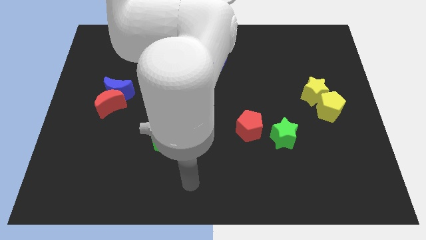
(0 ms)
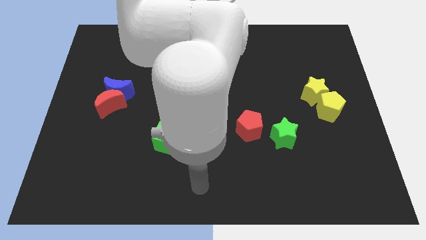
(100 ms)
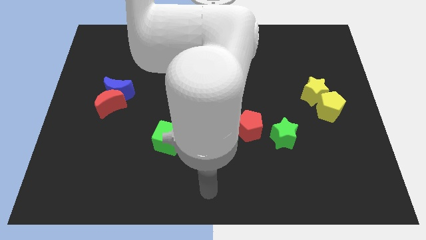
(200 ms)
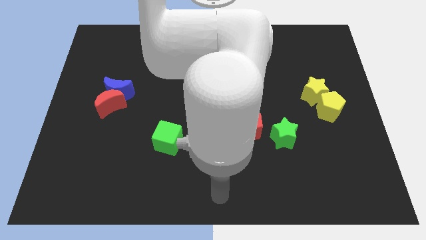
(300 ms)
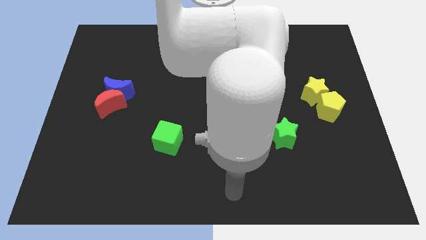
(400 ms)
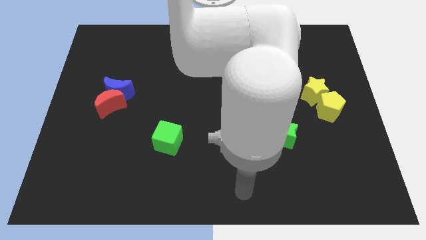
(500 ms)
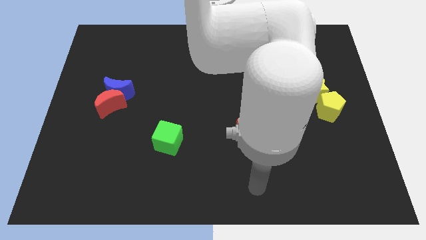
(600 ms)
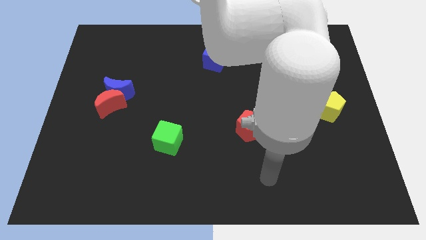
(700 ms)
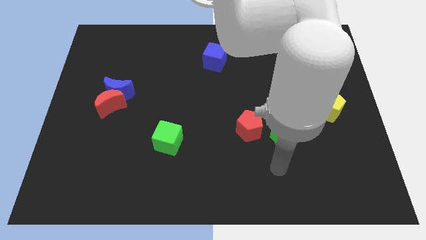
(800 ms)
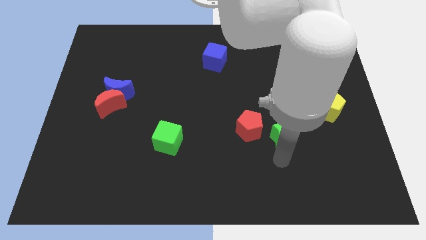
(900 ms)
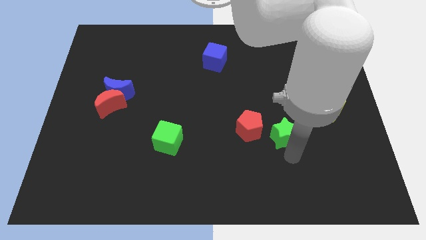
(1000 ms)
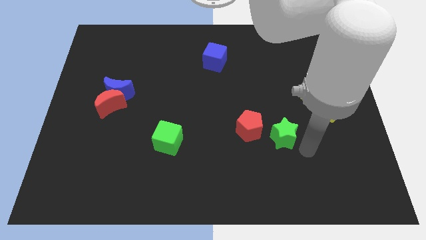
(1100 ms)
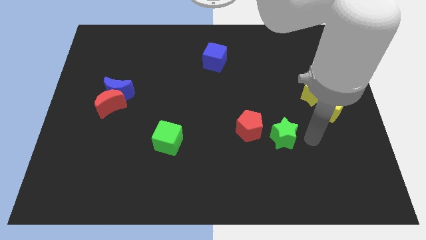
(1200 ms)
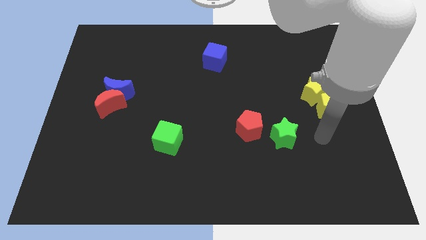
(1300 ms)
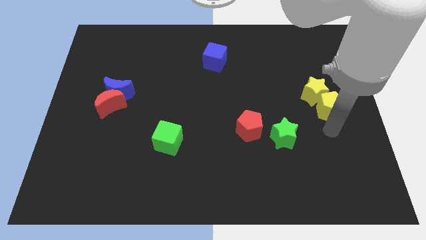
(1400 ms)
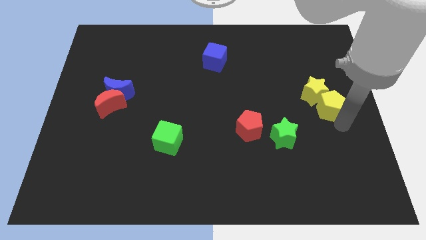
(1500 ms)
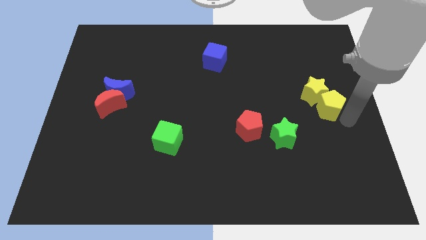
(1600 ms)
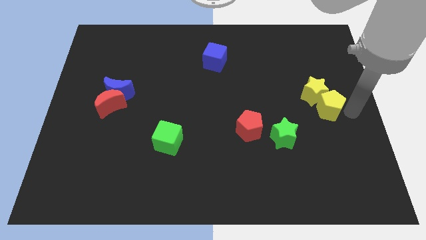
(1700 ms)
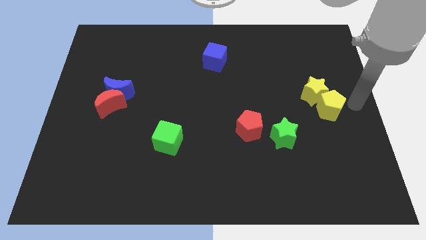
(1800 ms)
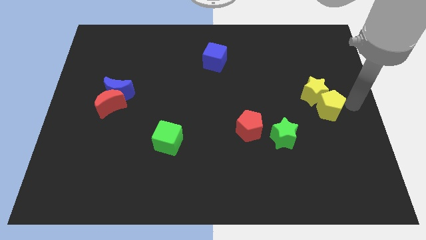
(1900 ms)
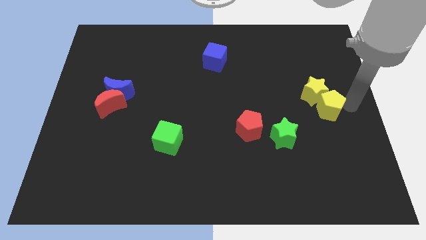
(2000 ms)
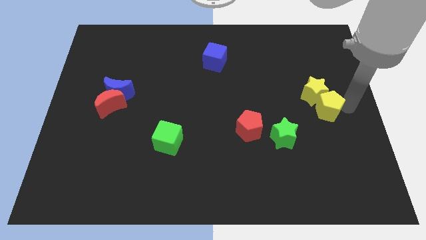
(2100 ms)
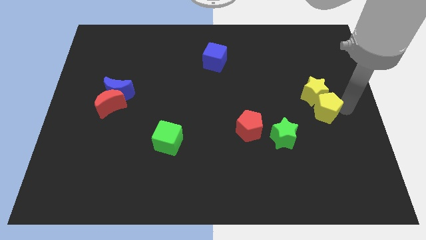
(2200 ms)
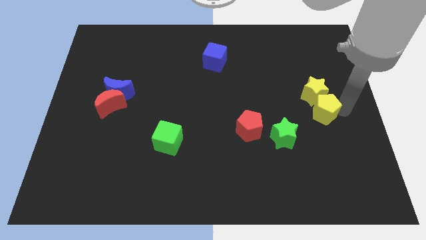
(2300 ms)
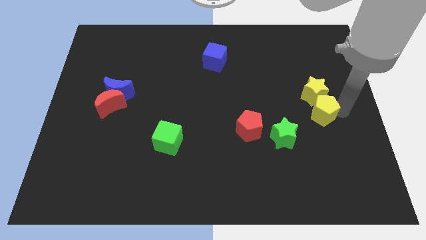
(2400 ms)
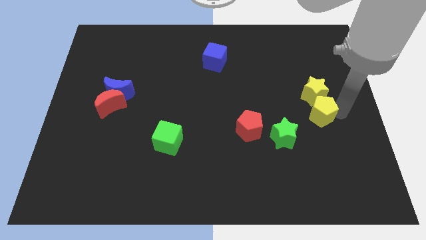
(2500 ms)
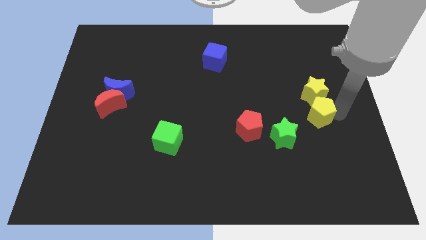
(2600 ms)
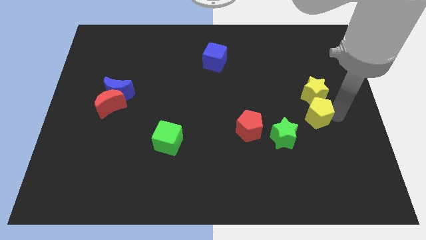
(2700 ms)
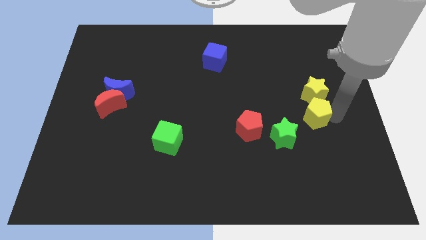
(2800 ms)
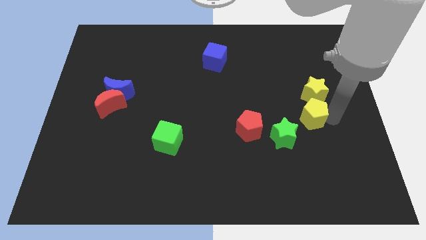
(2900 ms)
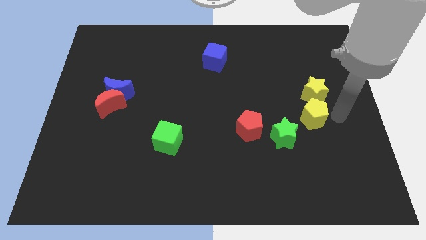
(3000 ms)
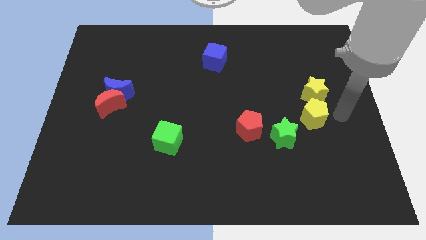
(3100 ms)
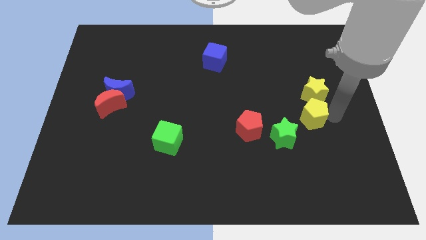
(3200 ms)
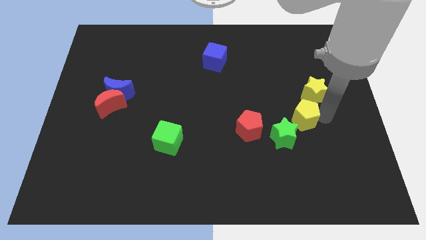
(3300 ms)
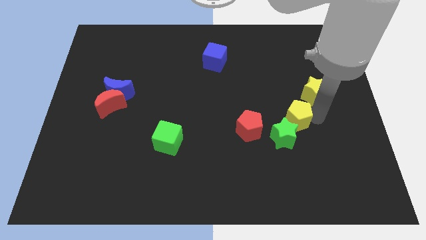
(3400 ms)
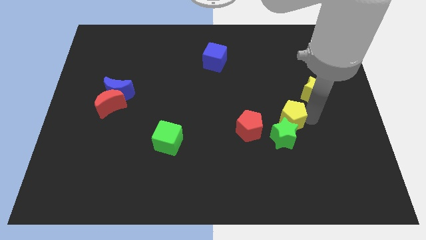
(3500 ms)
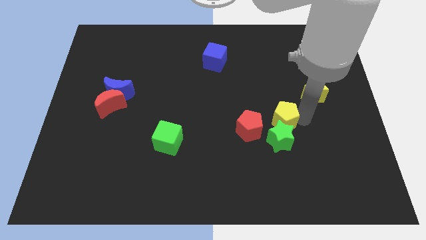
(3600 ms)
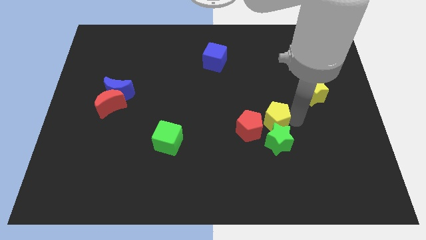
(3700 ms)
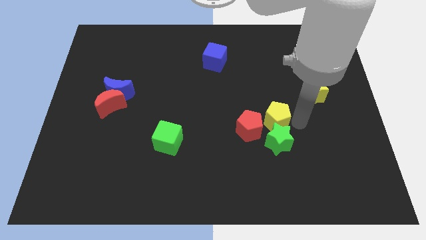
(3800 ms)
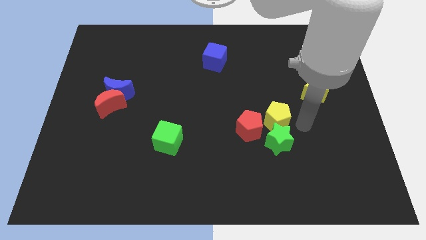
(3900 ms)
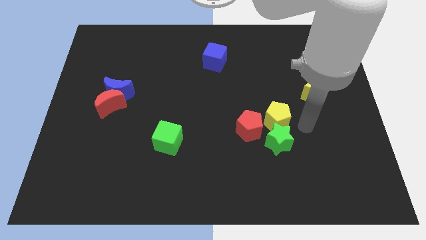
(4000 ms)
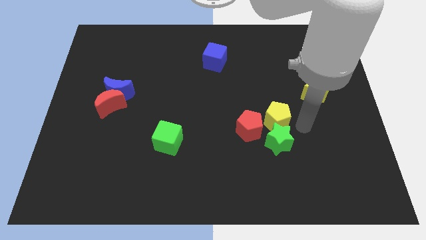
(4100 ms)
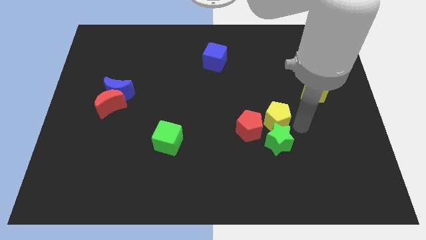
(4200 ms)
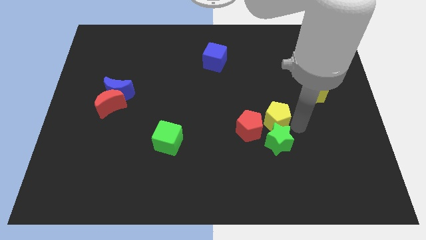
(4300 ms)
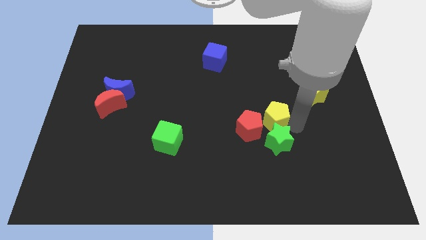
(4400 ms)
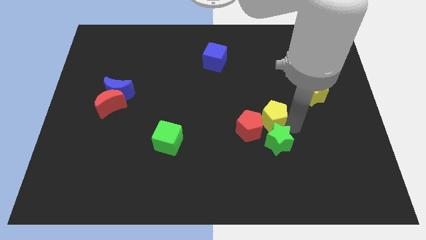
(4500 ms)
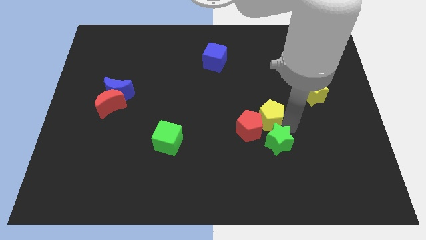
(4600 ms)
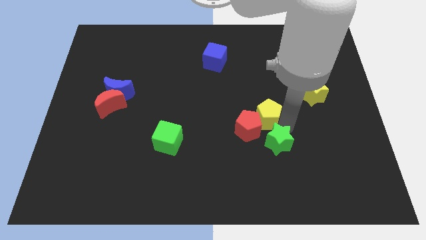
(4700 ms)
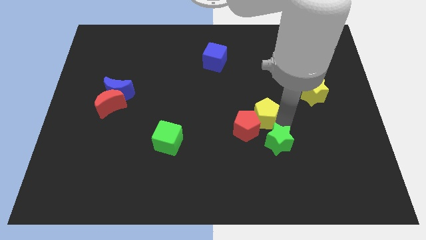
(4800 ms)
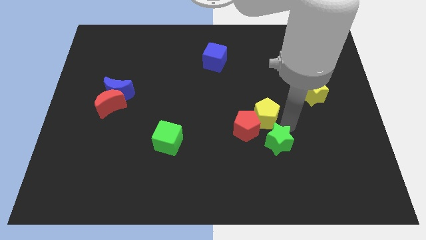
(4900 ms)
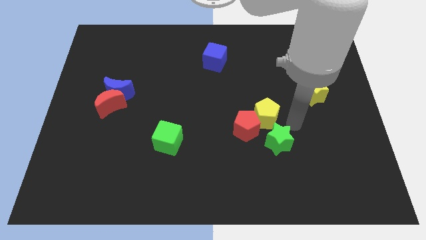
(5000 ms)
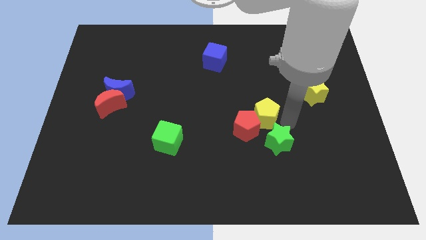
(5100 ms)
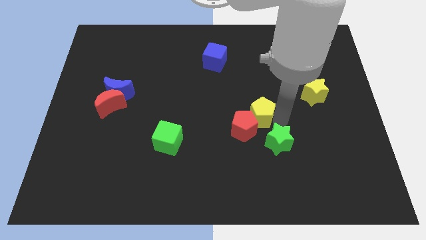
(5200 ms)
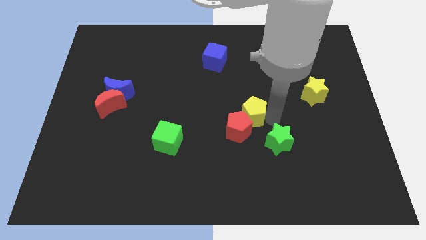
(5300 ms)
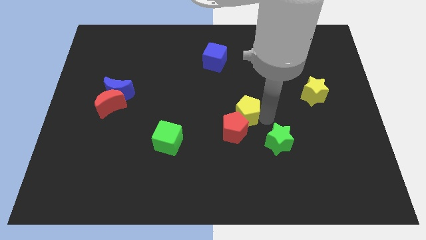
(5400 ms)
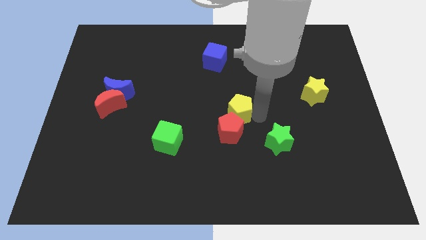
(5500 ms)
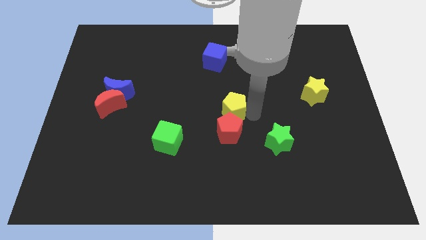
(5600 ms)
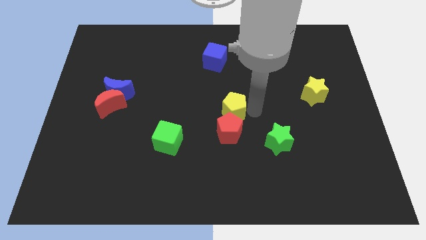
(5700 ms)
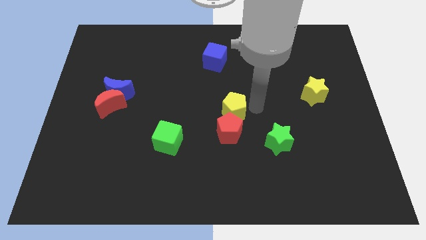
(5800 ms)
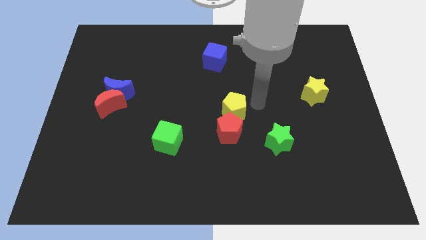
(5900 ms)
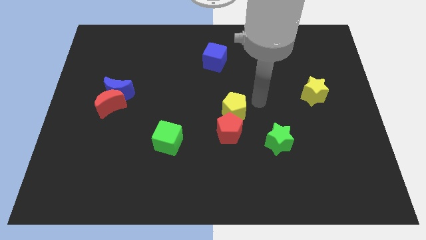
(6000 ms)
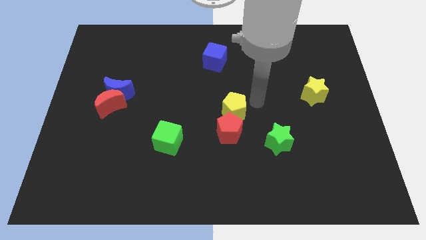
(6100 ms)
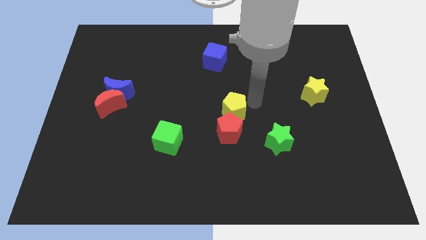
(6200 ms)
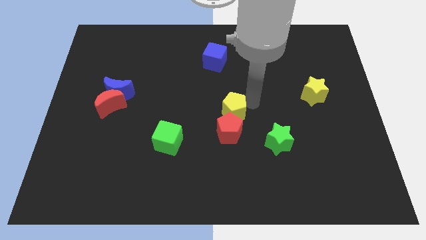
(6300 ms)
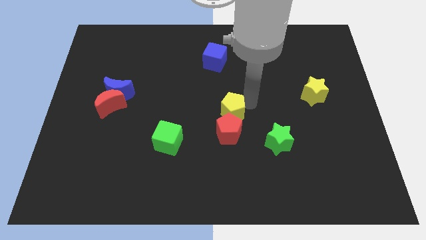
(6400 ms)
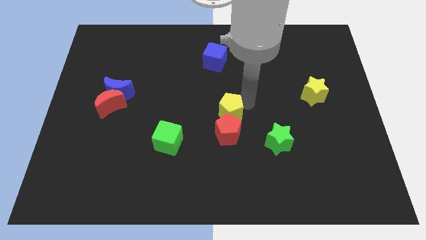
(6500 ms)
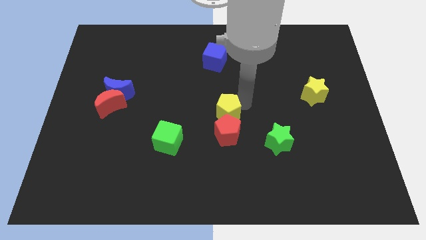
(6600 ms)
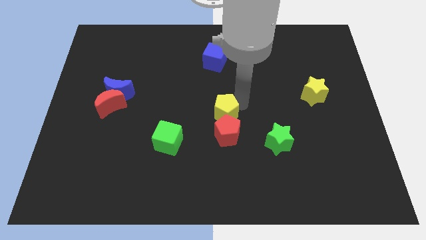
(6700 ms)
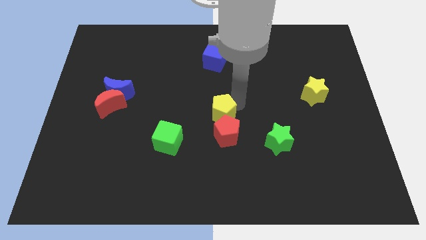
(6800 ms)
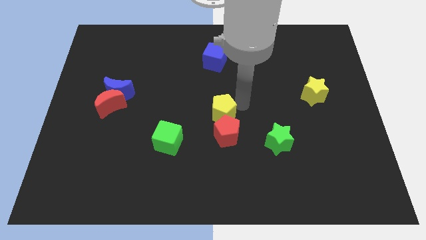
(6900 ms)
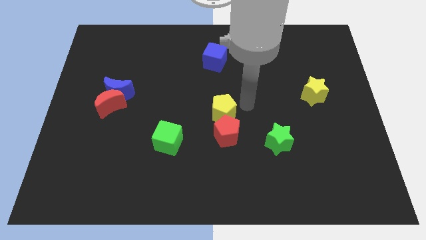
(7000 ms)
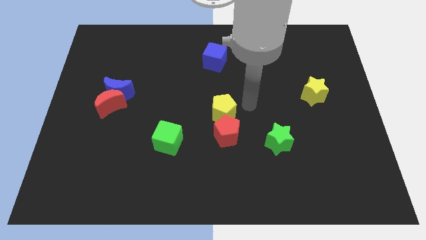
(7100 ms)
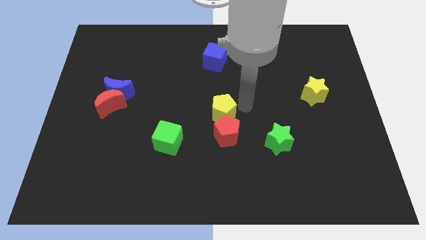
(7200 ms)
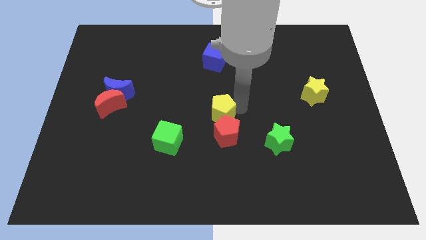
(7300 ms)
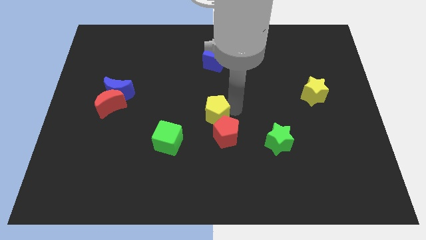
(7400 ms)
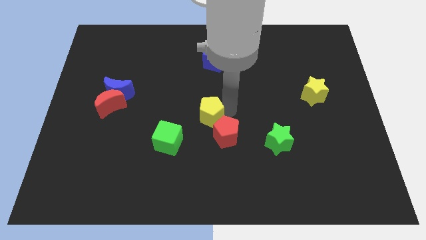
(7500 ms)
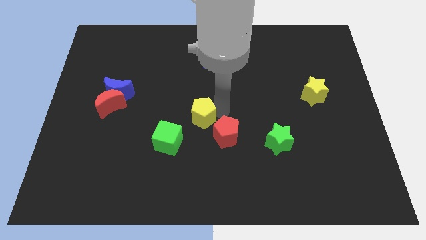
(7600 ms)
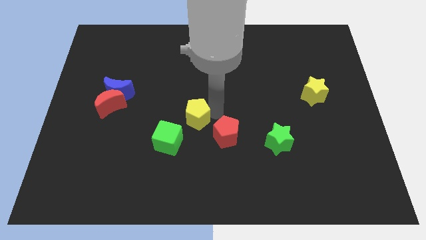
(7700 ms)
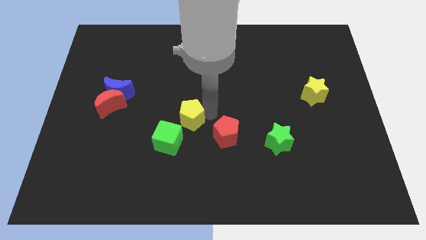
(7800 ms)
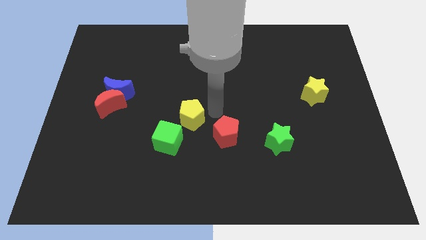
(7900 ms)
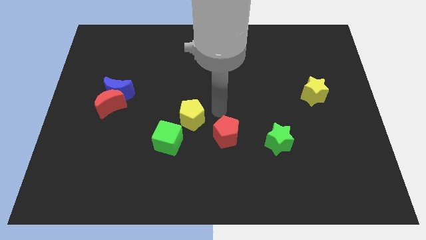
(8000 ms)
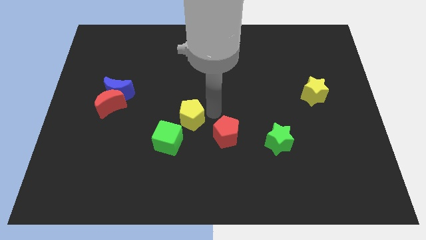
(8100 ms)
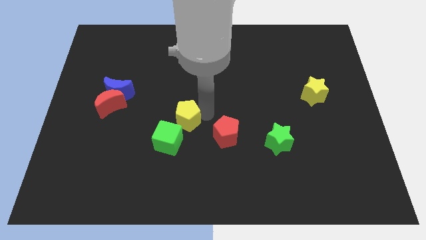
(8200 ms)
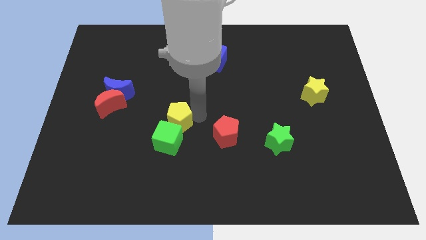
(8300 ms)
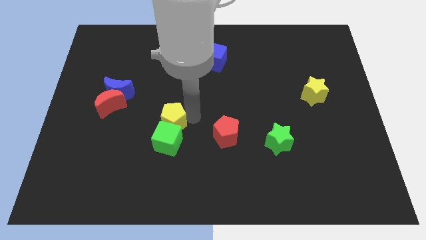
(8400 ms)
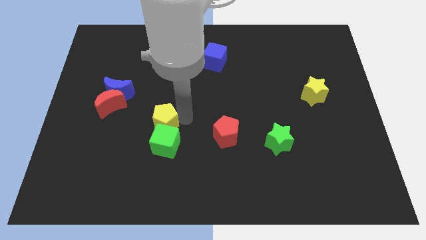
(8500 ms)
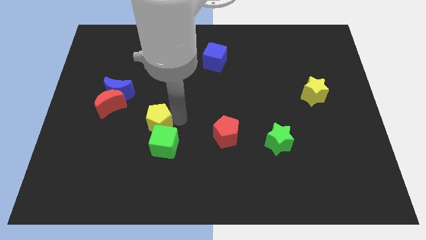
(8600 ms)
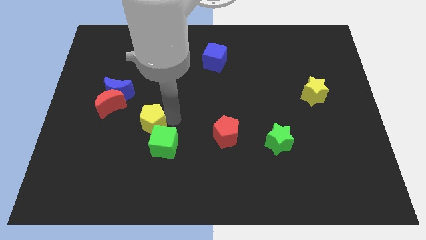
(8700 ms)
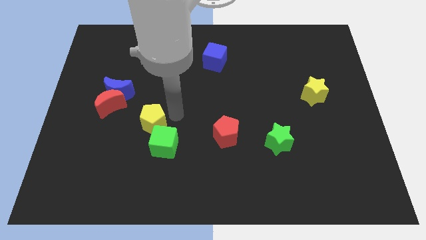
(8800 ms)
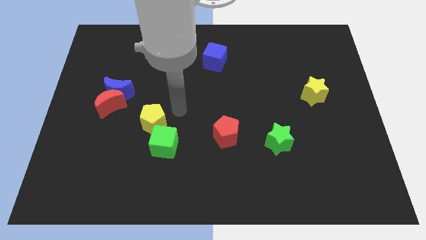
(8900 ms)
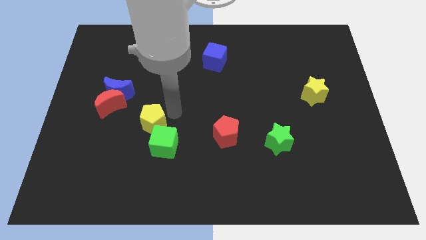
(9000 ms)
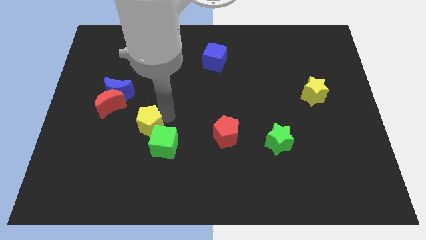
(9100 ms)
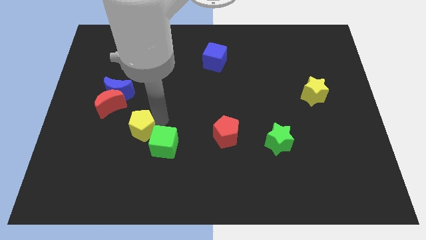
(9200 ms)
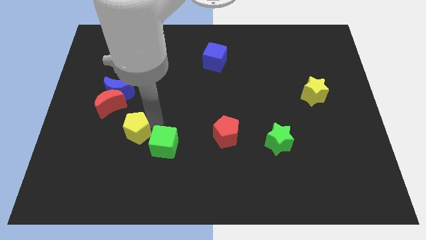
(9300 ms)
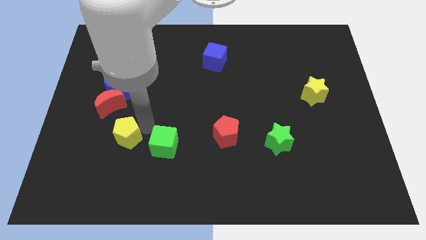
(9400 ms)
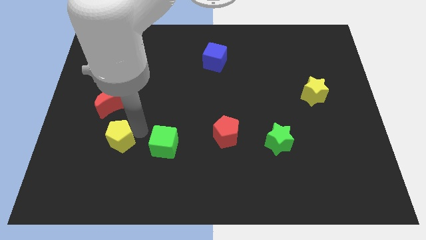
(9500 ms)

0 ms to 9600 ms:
move the yellow pentagon to the bottom side of the red moon
